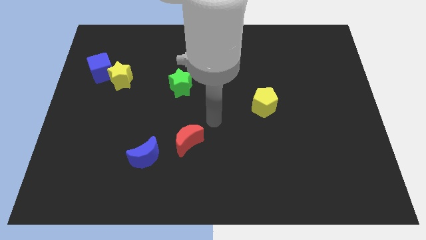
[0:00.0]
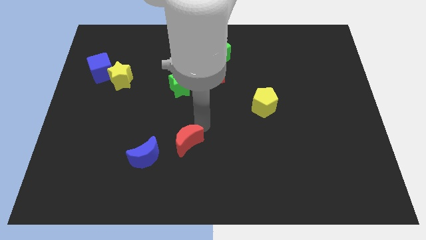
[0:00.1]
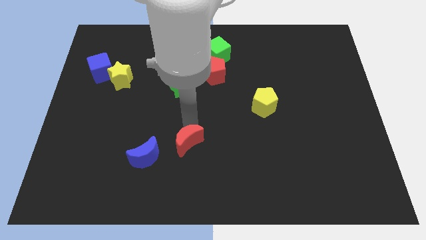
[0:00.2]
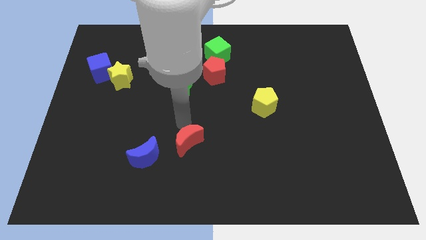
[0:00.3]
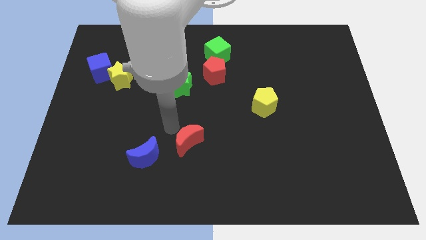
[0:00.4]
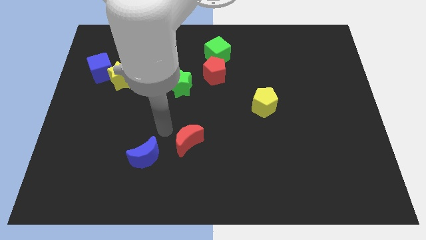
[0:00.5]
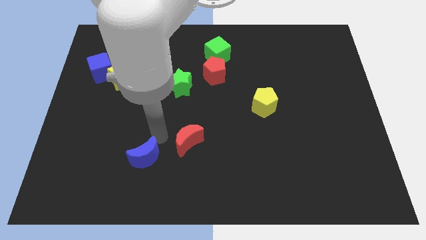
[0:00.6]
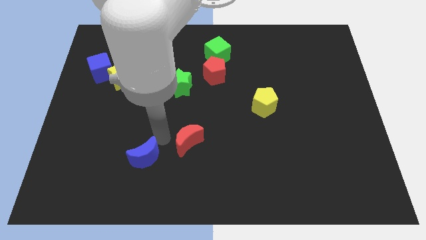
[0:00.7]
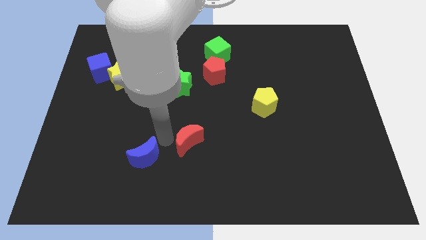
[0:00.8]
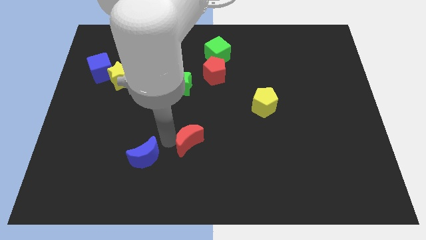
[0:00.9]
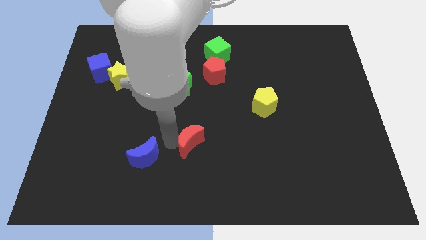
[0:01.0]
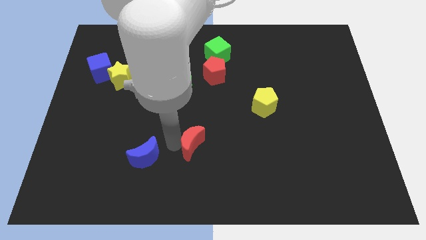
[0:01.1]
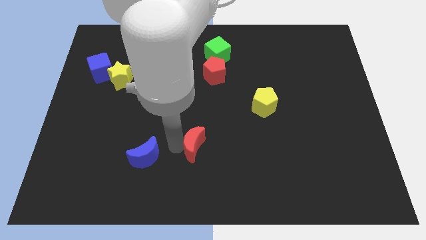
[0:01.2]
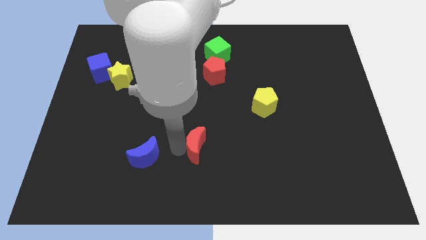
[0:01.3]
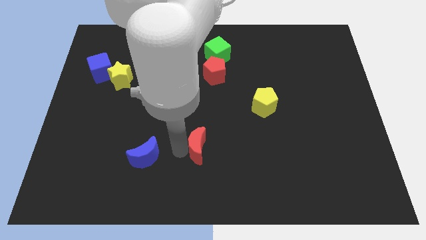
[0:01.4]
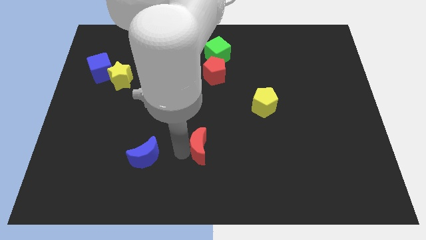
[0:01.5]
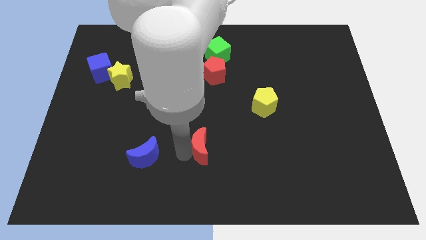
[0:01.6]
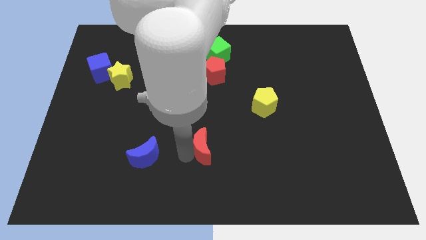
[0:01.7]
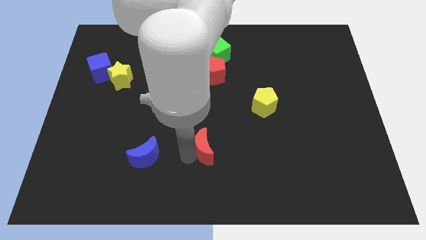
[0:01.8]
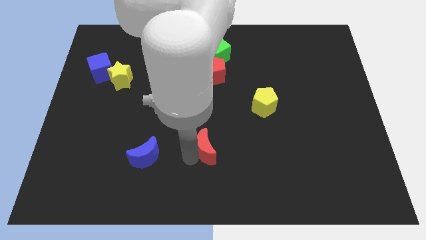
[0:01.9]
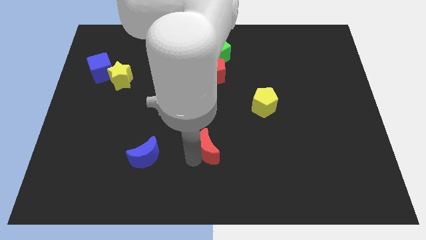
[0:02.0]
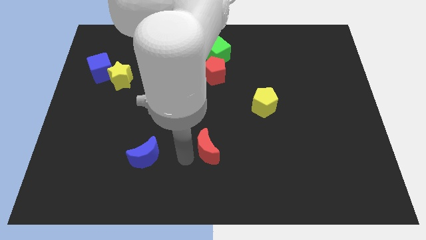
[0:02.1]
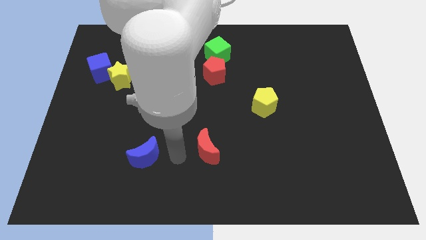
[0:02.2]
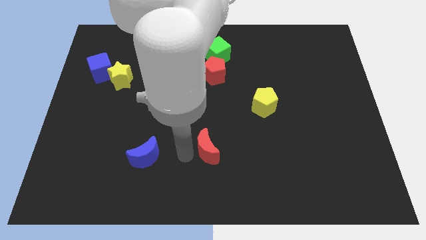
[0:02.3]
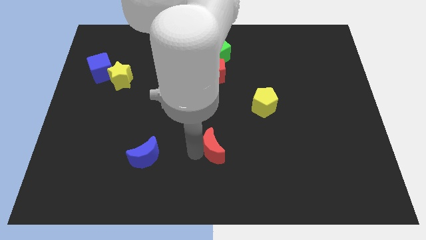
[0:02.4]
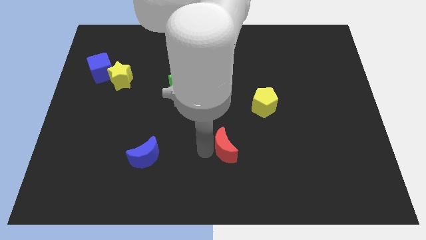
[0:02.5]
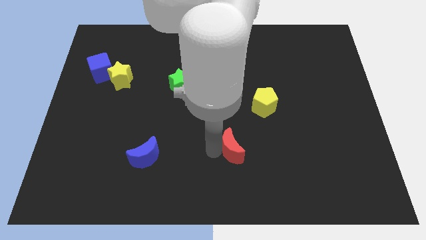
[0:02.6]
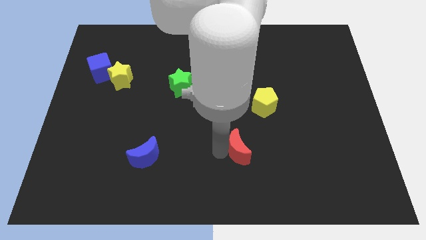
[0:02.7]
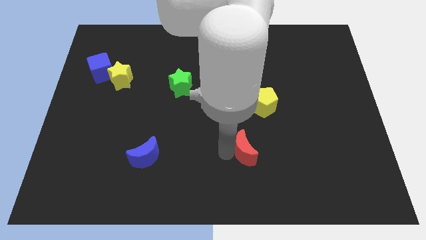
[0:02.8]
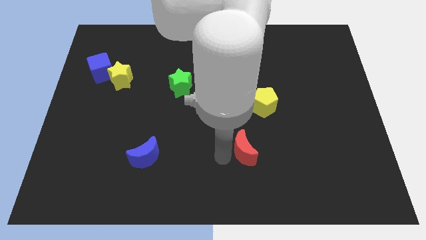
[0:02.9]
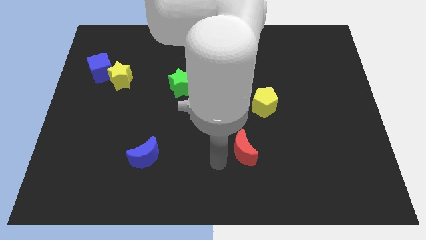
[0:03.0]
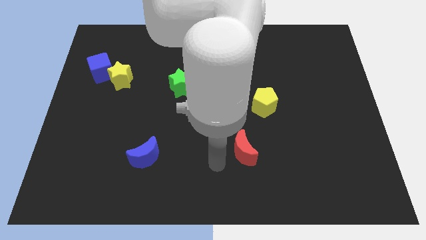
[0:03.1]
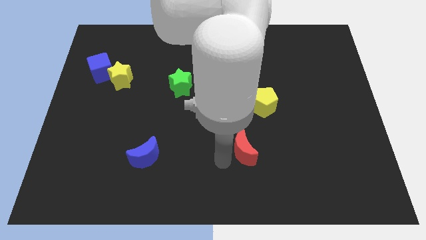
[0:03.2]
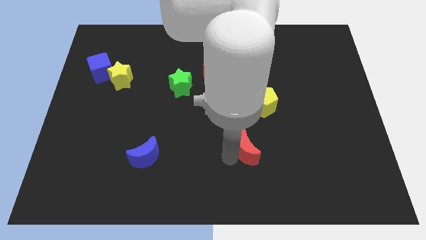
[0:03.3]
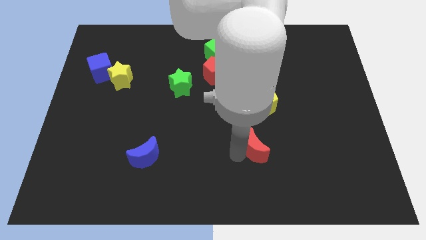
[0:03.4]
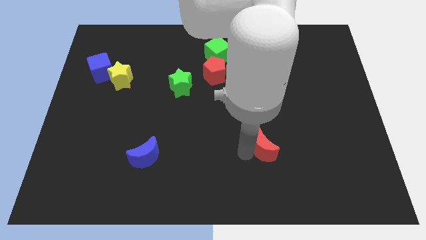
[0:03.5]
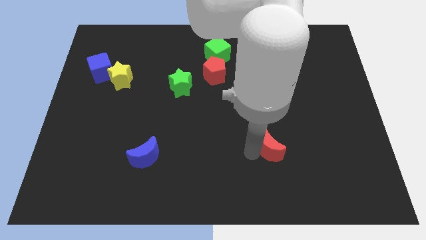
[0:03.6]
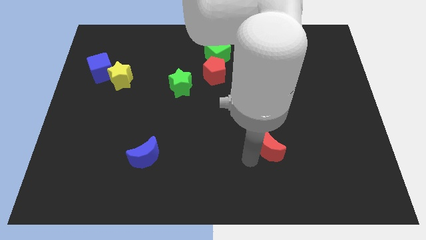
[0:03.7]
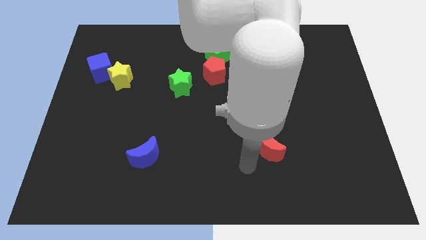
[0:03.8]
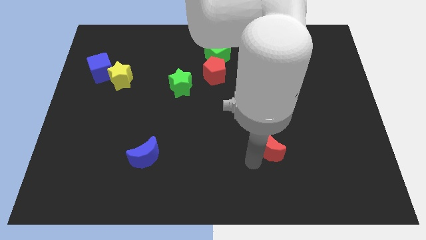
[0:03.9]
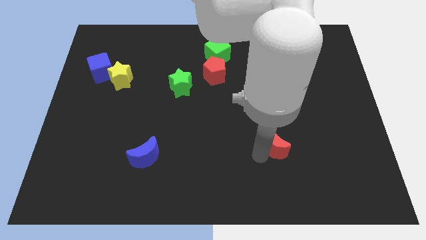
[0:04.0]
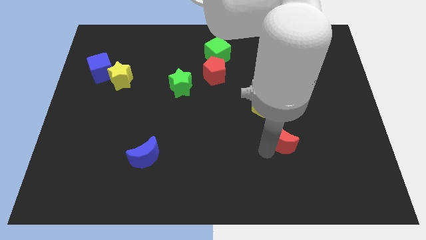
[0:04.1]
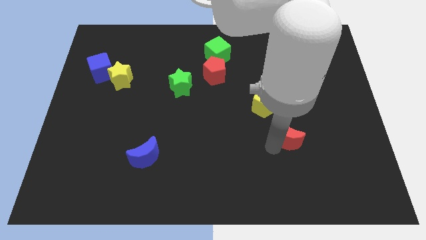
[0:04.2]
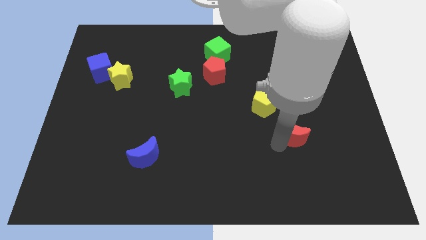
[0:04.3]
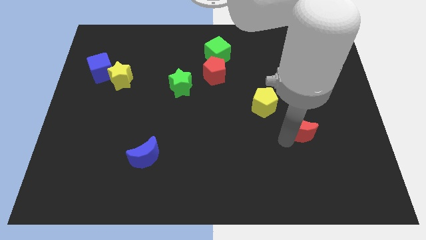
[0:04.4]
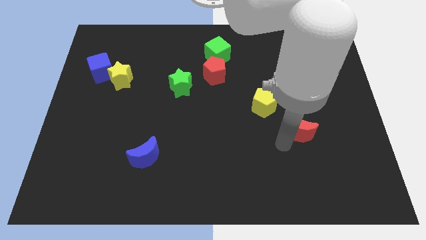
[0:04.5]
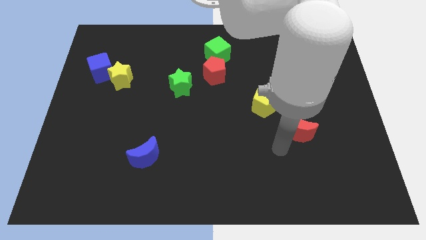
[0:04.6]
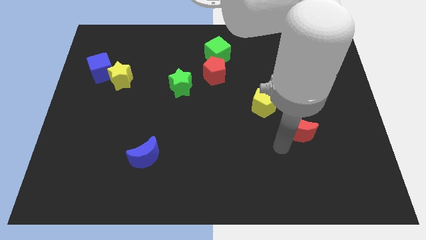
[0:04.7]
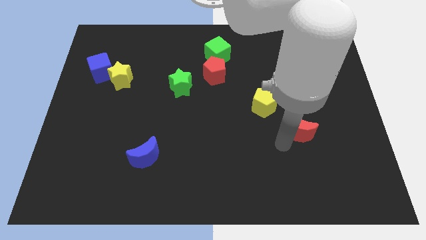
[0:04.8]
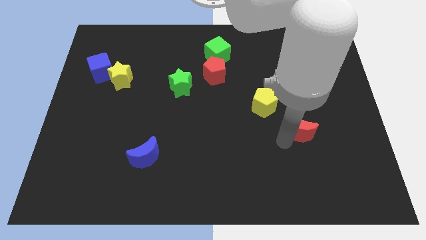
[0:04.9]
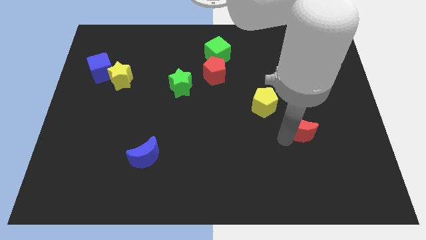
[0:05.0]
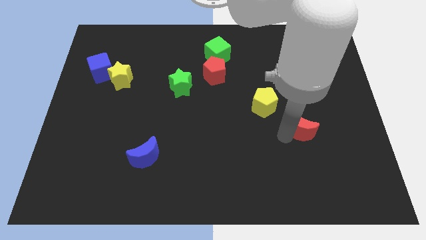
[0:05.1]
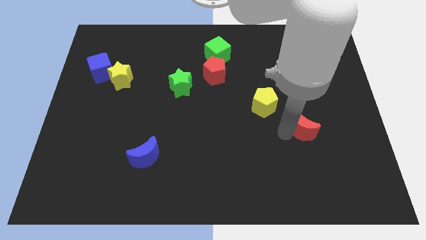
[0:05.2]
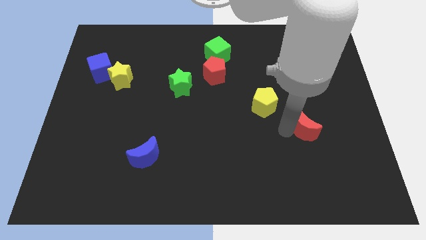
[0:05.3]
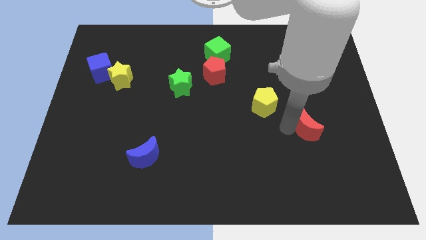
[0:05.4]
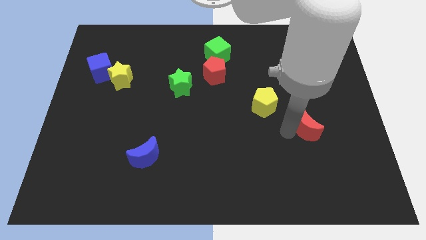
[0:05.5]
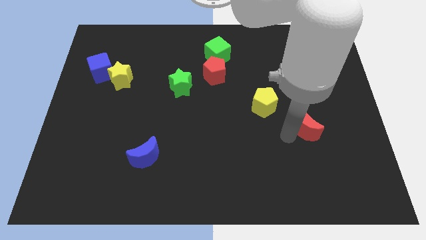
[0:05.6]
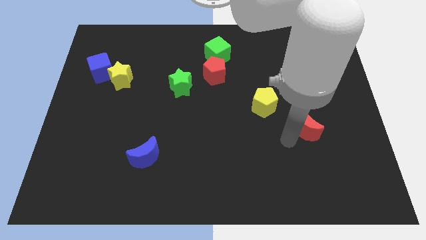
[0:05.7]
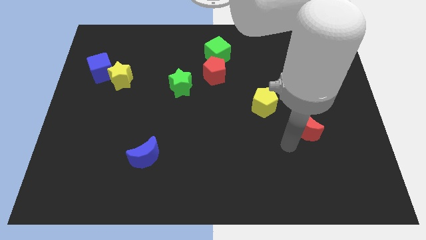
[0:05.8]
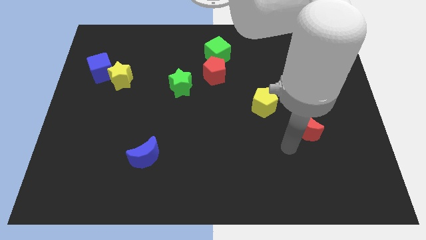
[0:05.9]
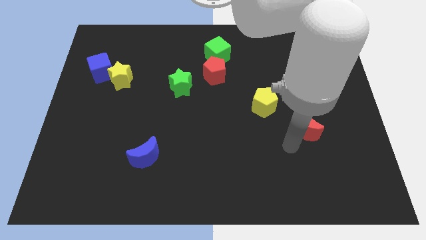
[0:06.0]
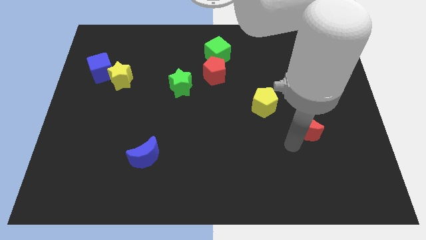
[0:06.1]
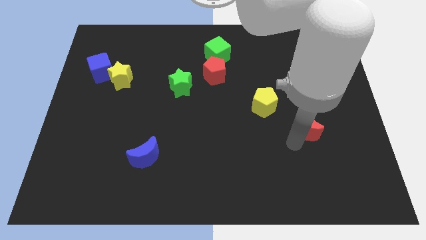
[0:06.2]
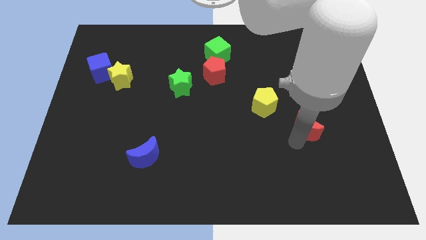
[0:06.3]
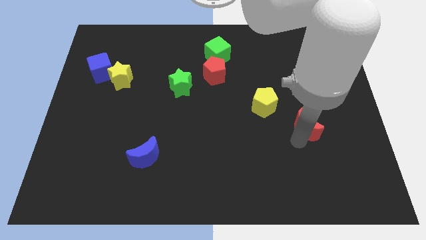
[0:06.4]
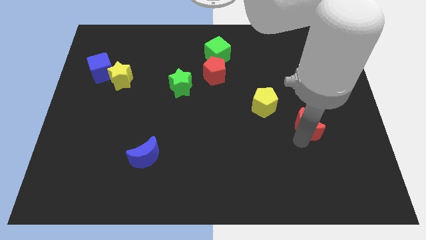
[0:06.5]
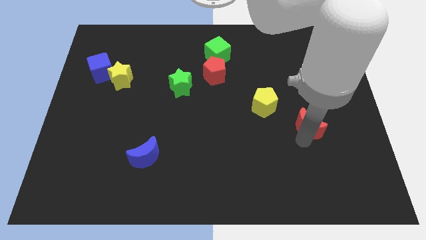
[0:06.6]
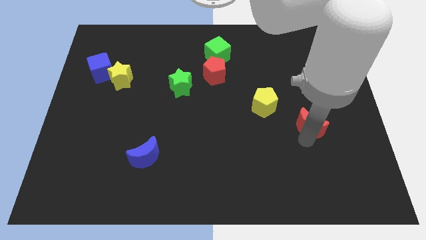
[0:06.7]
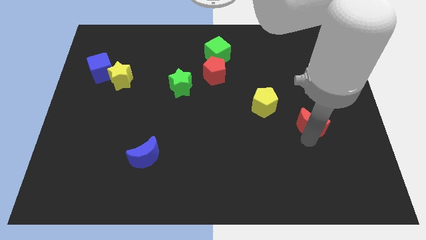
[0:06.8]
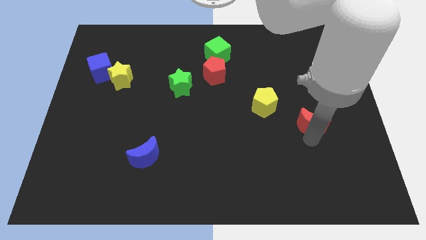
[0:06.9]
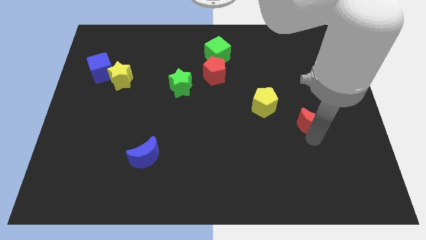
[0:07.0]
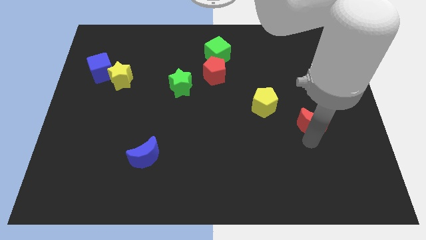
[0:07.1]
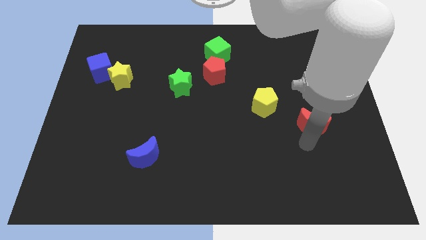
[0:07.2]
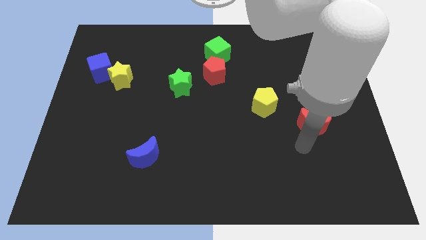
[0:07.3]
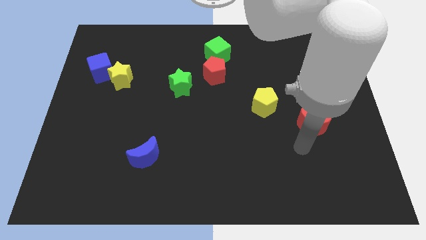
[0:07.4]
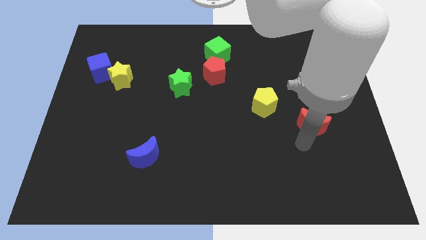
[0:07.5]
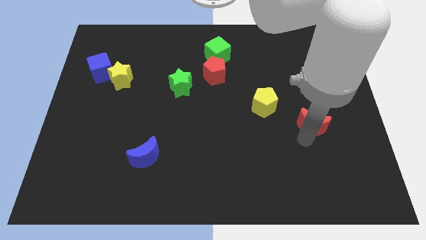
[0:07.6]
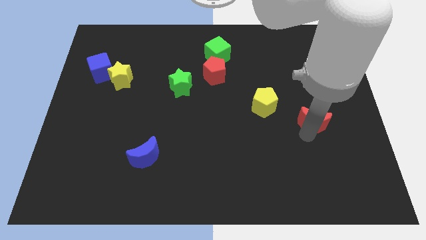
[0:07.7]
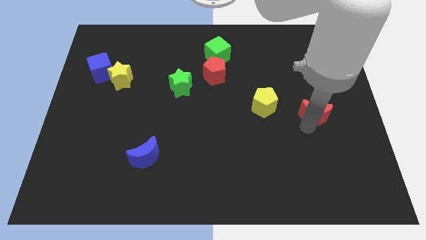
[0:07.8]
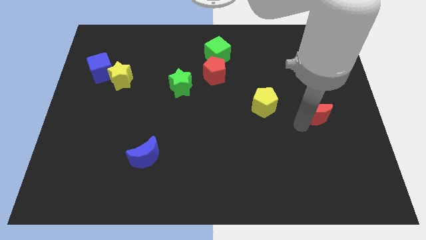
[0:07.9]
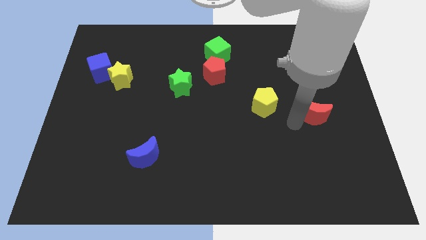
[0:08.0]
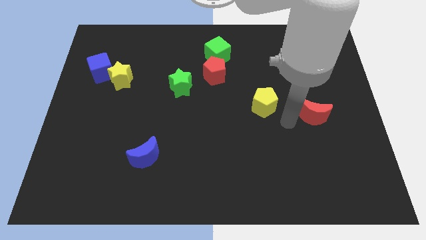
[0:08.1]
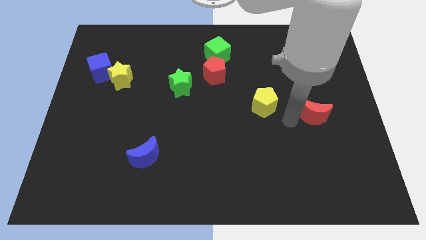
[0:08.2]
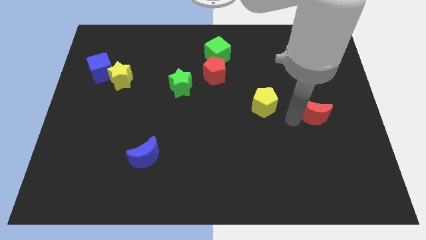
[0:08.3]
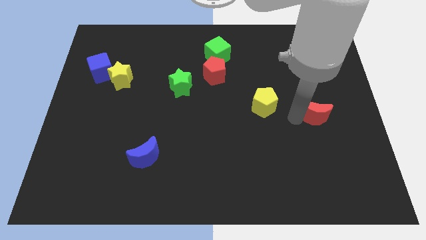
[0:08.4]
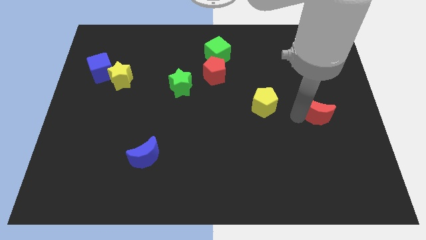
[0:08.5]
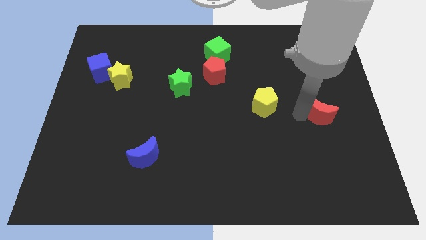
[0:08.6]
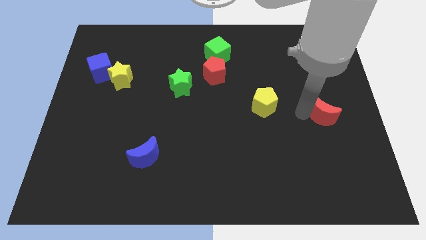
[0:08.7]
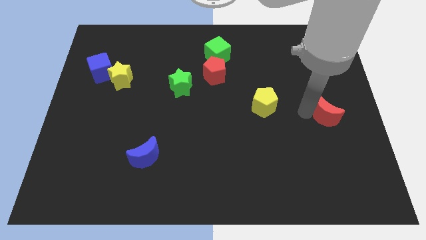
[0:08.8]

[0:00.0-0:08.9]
put the red moon to the right side of the board
